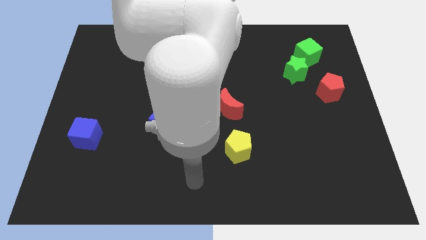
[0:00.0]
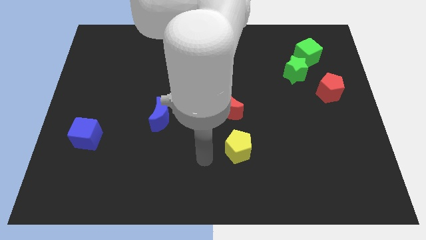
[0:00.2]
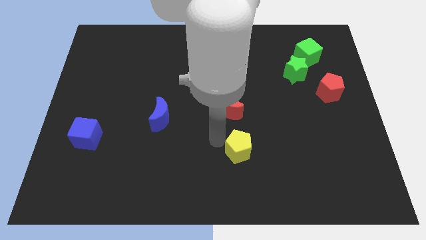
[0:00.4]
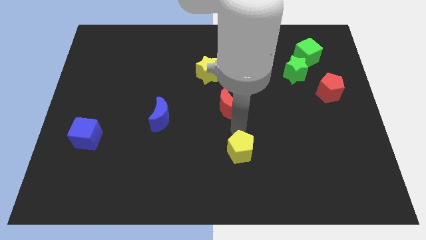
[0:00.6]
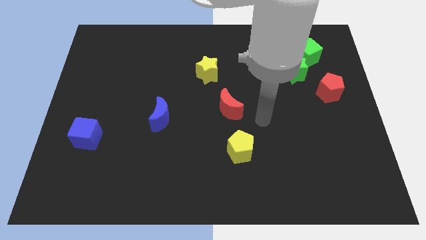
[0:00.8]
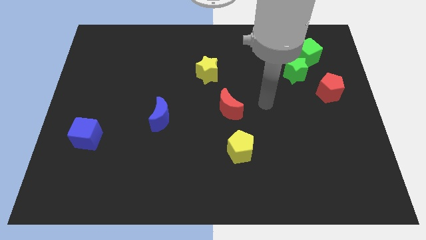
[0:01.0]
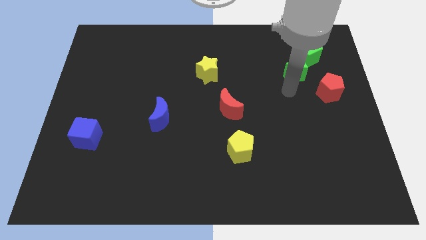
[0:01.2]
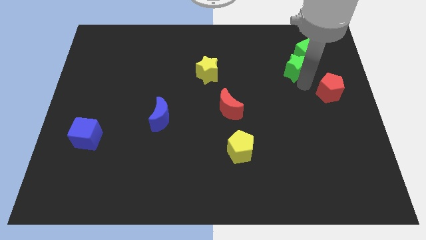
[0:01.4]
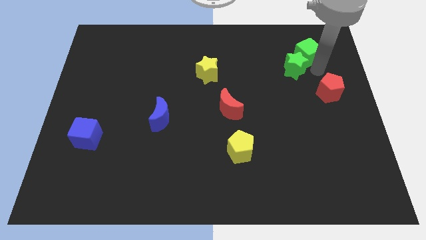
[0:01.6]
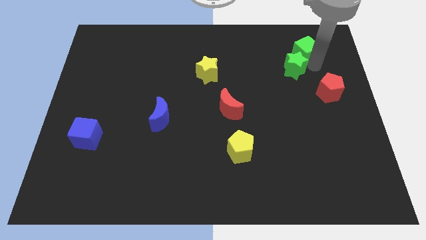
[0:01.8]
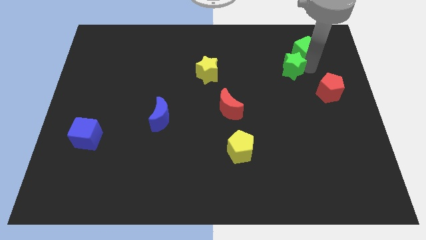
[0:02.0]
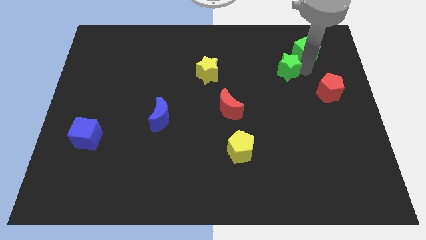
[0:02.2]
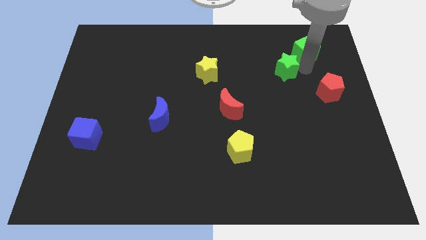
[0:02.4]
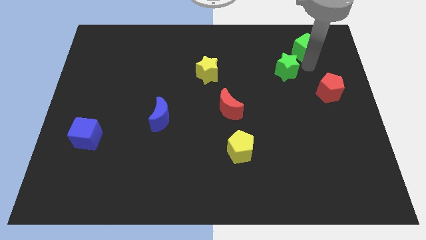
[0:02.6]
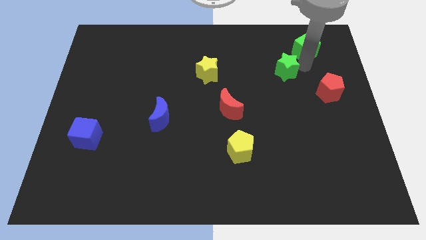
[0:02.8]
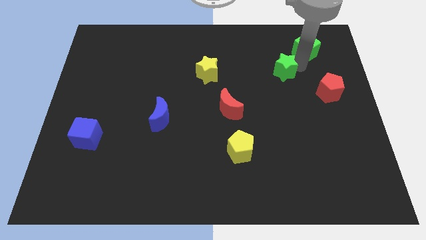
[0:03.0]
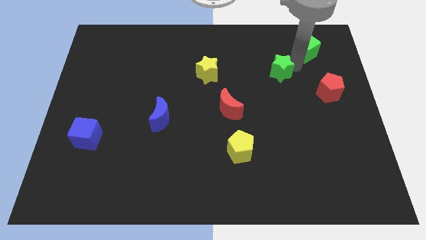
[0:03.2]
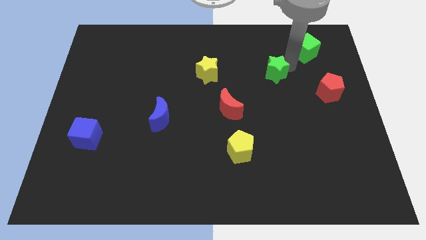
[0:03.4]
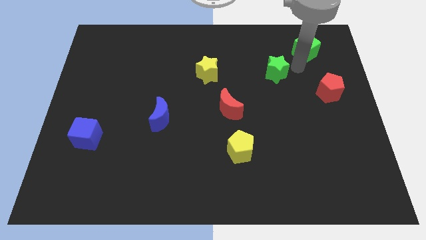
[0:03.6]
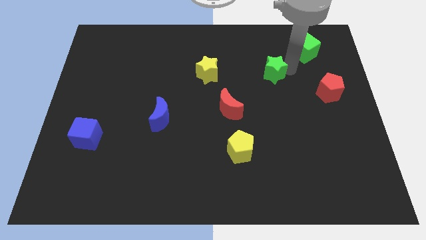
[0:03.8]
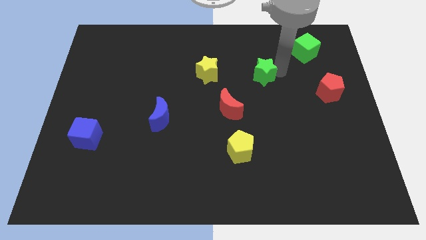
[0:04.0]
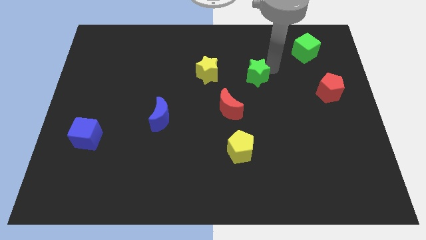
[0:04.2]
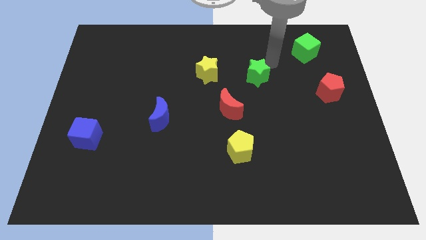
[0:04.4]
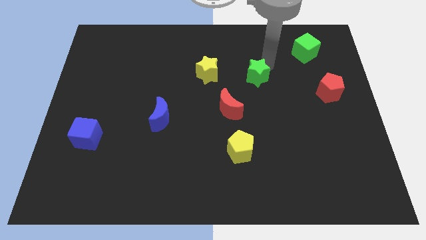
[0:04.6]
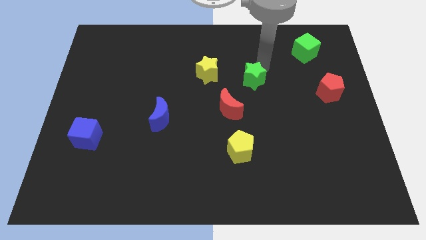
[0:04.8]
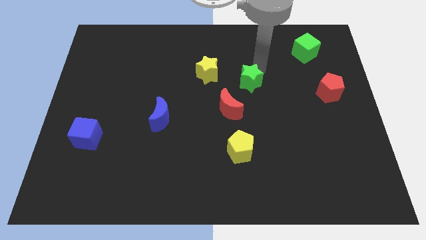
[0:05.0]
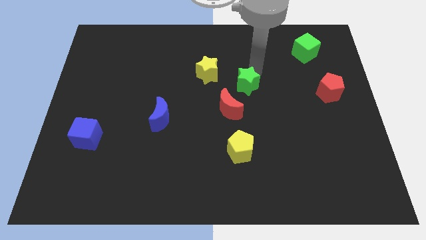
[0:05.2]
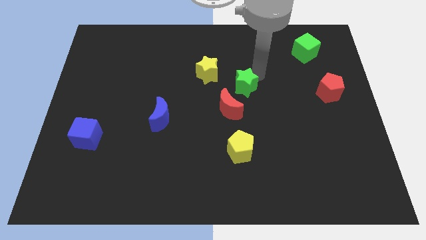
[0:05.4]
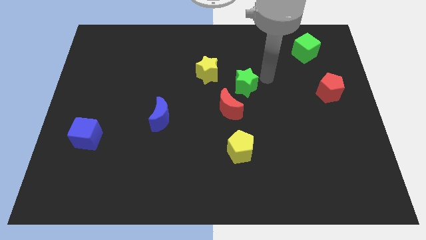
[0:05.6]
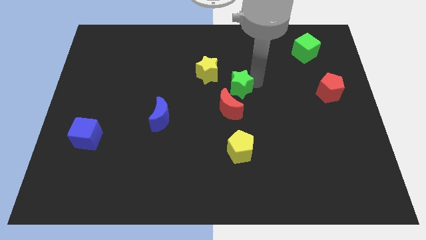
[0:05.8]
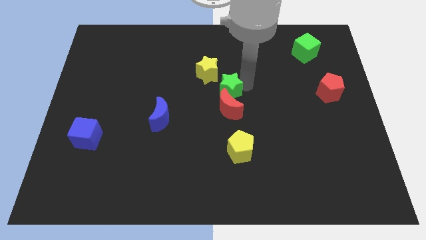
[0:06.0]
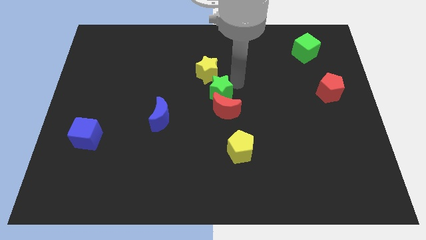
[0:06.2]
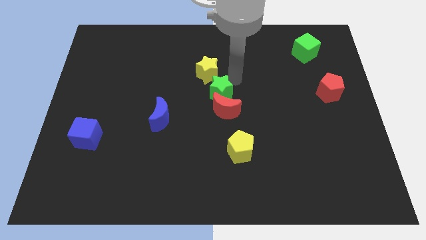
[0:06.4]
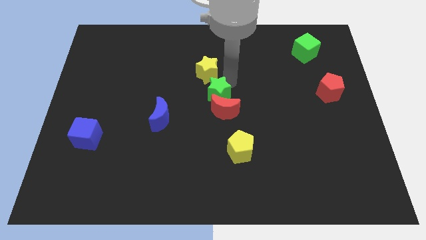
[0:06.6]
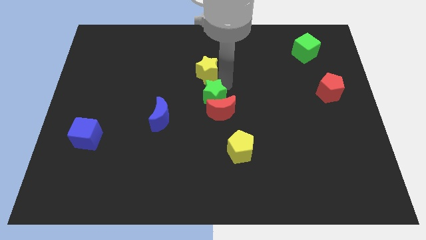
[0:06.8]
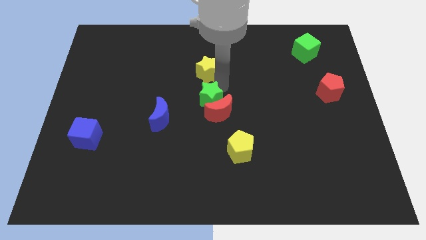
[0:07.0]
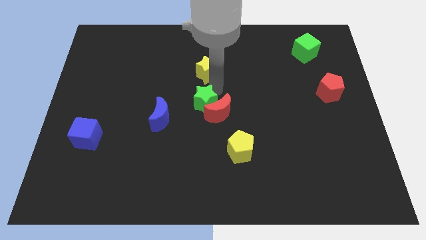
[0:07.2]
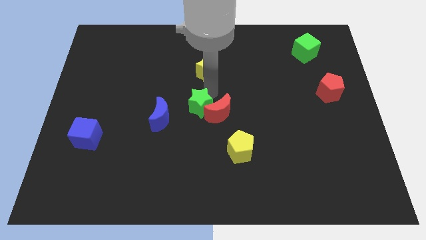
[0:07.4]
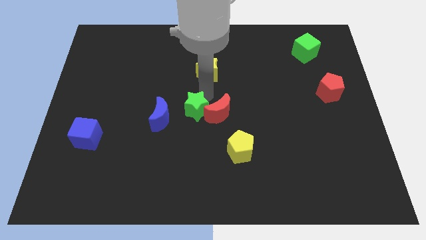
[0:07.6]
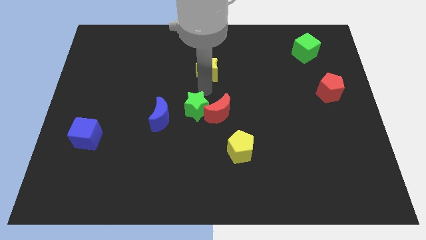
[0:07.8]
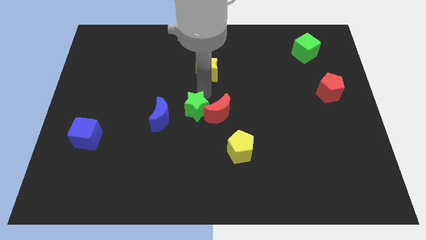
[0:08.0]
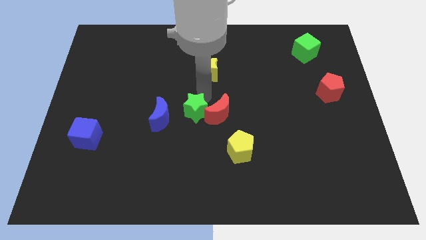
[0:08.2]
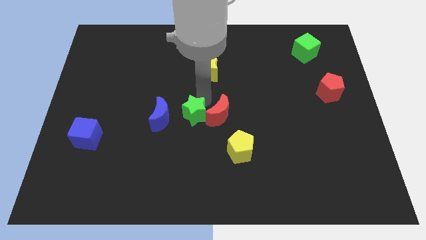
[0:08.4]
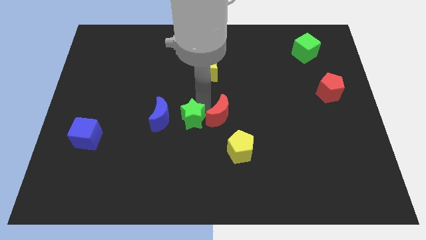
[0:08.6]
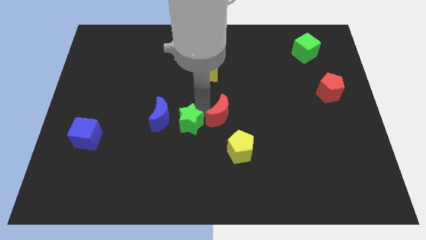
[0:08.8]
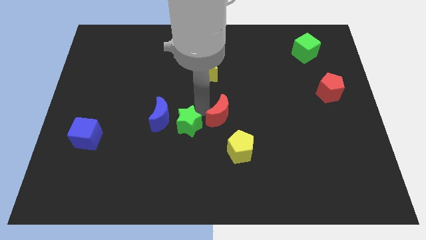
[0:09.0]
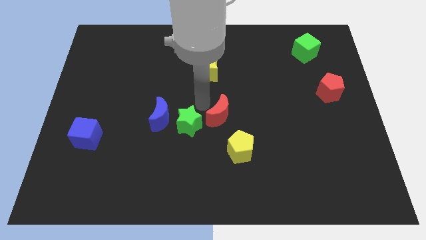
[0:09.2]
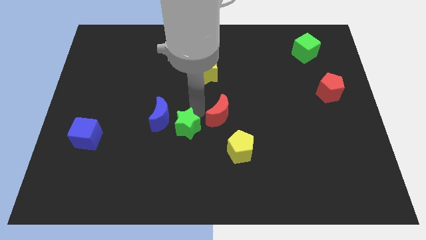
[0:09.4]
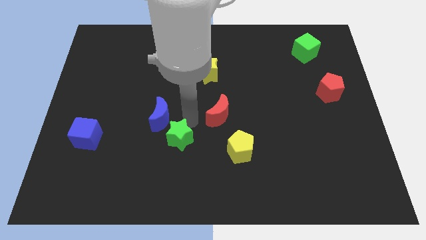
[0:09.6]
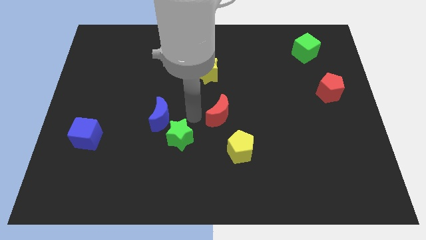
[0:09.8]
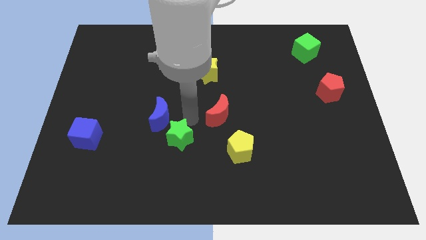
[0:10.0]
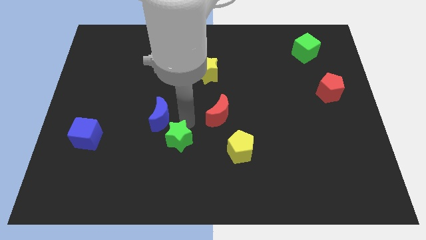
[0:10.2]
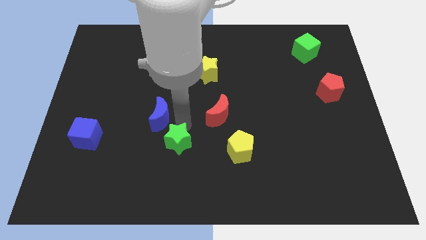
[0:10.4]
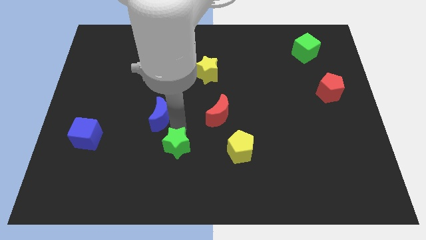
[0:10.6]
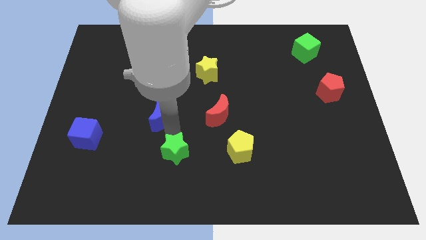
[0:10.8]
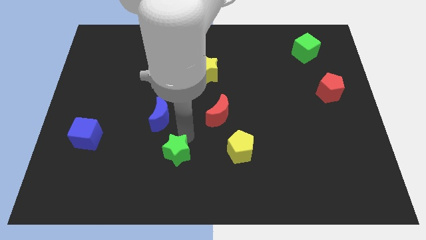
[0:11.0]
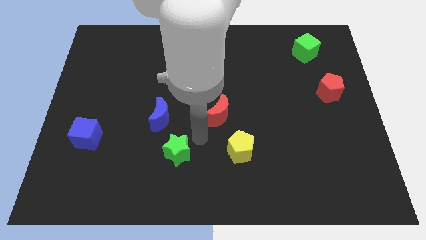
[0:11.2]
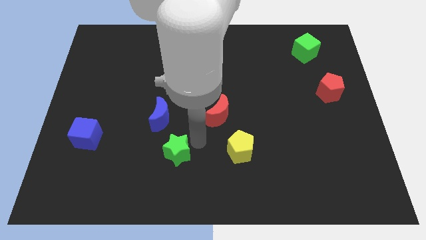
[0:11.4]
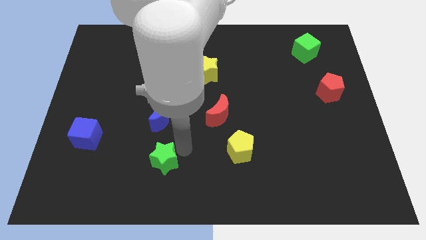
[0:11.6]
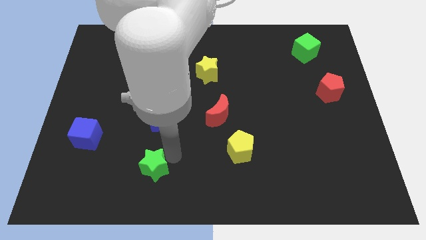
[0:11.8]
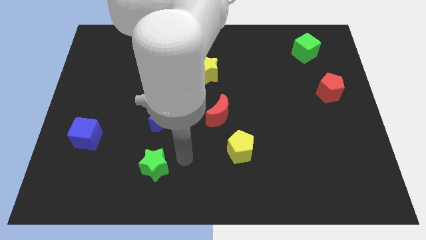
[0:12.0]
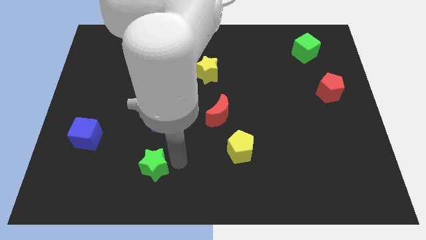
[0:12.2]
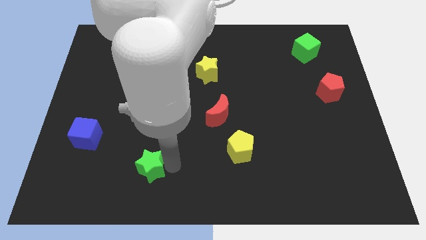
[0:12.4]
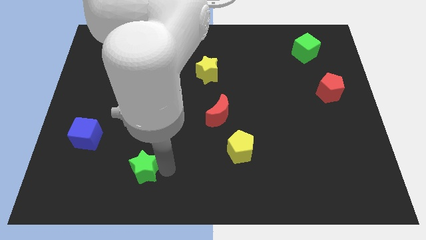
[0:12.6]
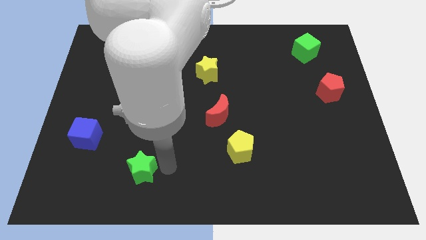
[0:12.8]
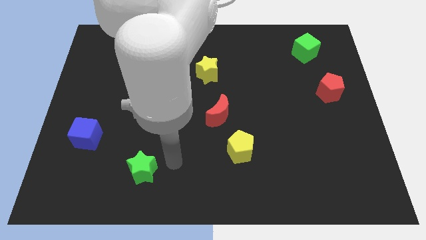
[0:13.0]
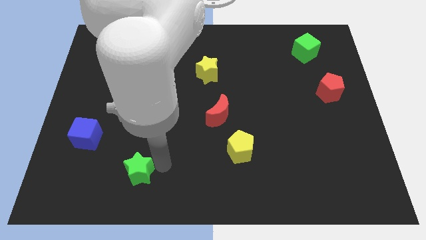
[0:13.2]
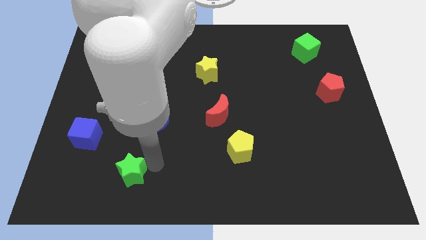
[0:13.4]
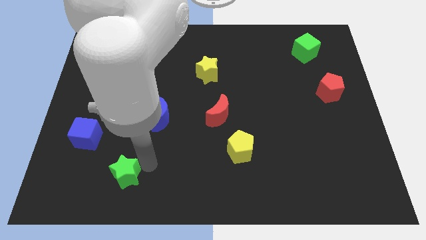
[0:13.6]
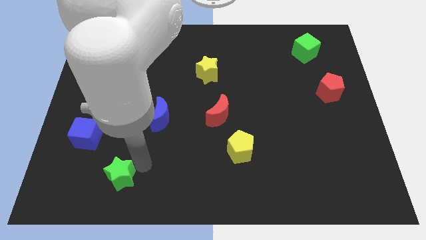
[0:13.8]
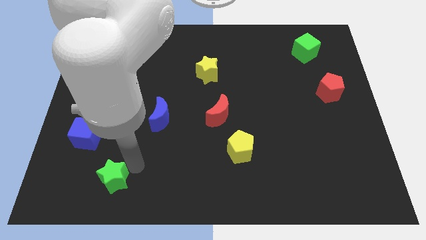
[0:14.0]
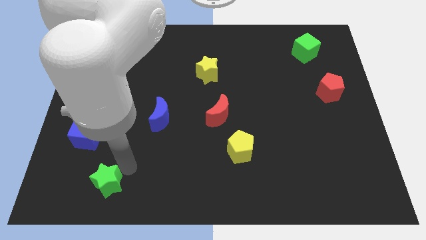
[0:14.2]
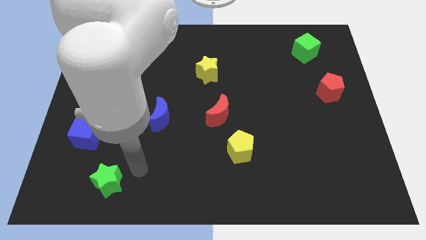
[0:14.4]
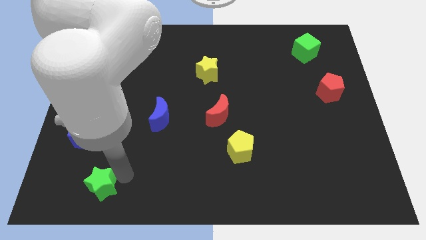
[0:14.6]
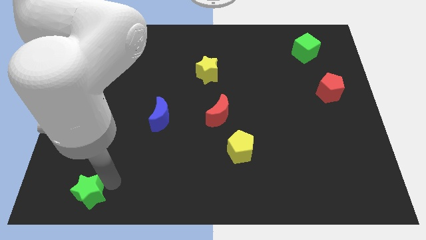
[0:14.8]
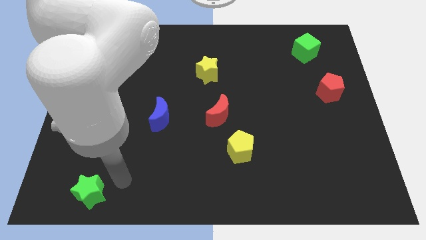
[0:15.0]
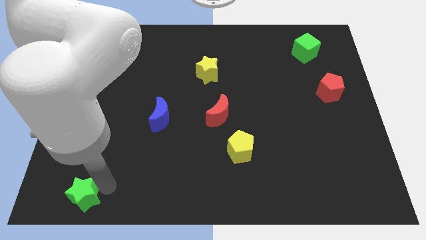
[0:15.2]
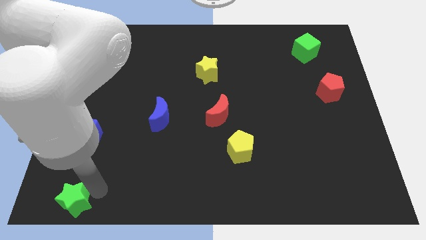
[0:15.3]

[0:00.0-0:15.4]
move the green star to the bottom left corner
